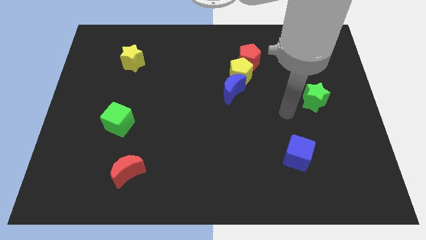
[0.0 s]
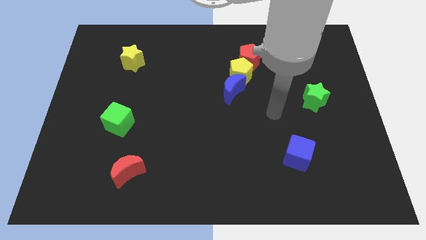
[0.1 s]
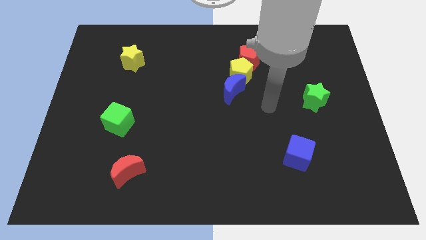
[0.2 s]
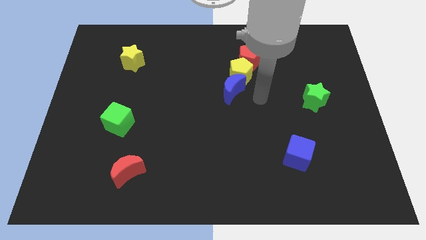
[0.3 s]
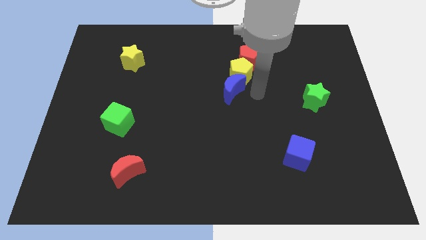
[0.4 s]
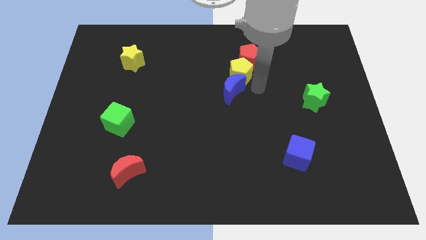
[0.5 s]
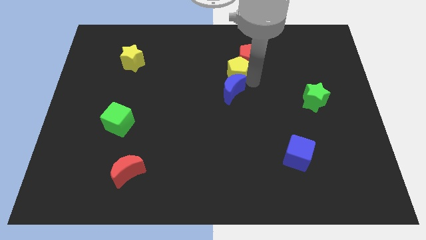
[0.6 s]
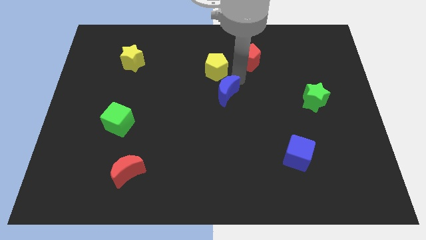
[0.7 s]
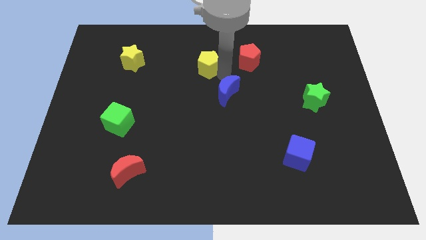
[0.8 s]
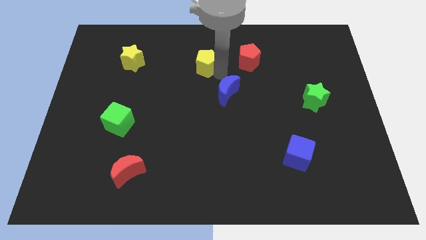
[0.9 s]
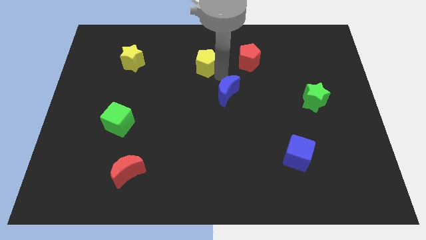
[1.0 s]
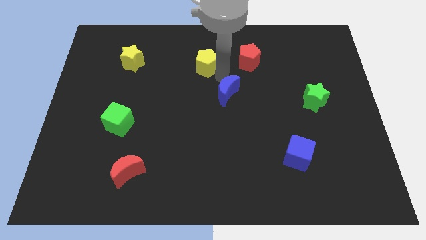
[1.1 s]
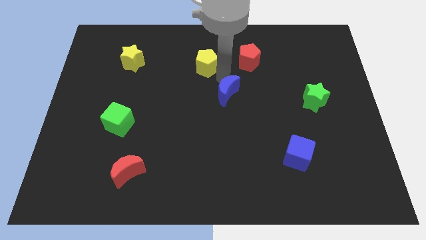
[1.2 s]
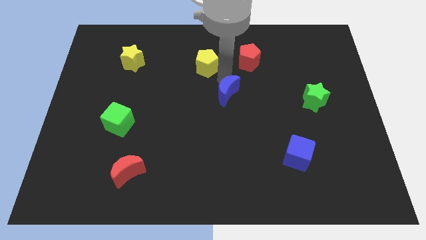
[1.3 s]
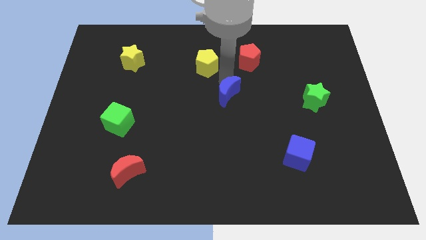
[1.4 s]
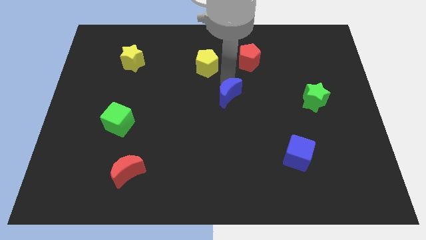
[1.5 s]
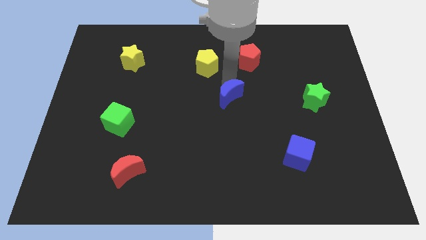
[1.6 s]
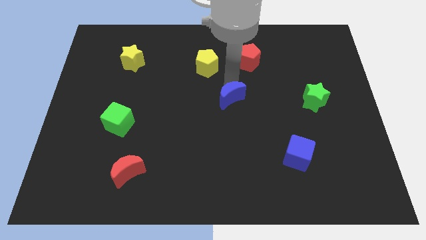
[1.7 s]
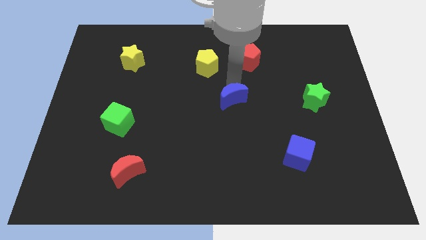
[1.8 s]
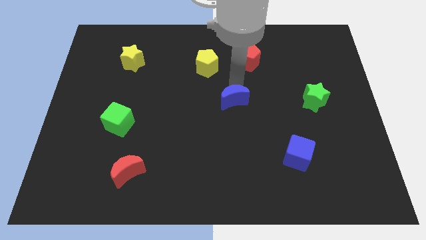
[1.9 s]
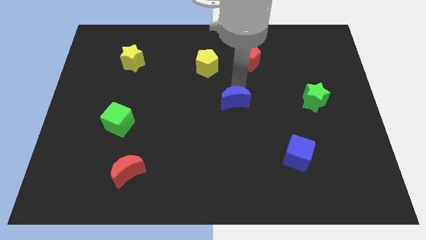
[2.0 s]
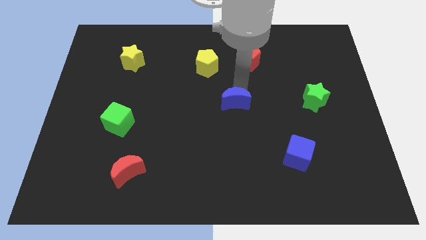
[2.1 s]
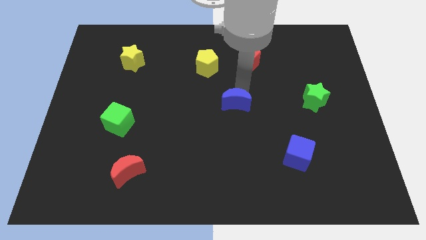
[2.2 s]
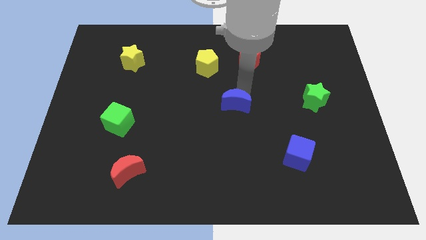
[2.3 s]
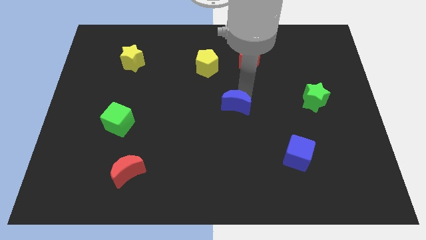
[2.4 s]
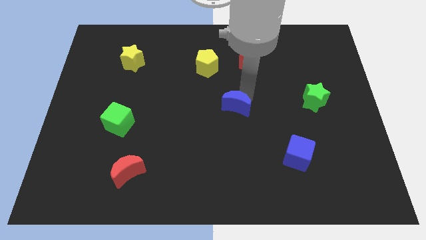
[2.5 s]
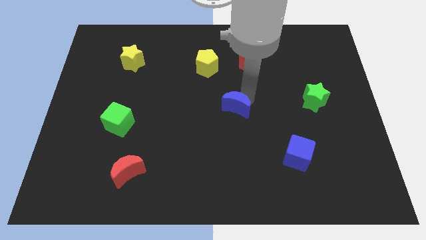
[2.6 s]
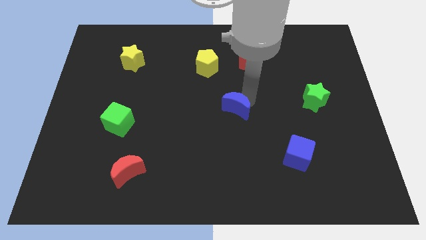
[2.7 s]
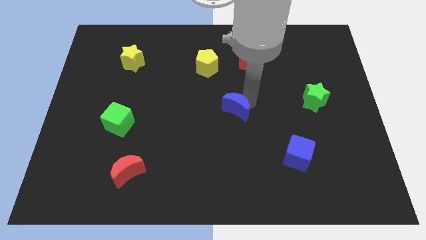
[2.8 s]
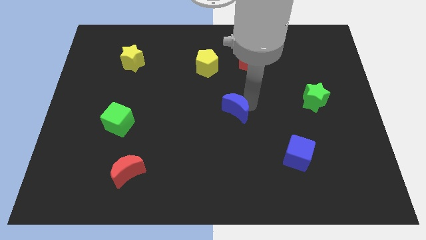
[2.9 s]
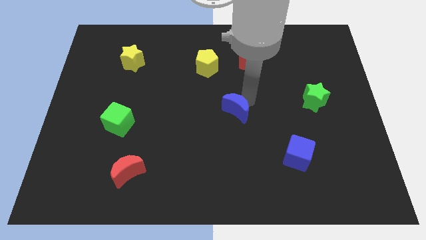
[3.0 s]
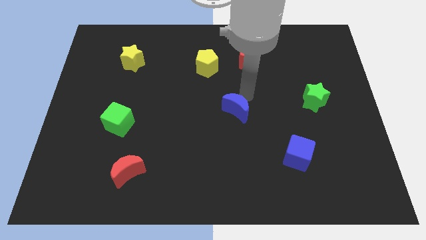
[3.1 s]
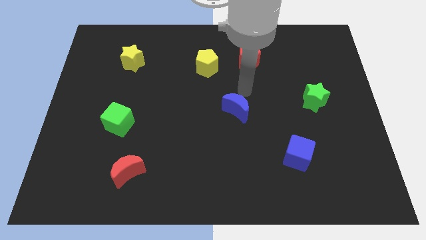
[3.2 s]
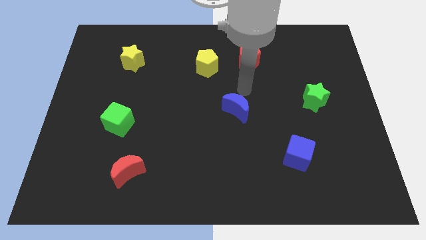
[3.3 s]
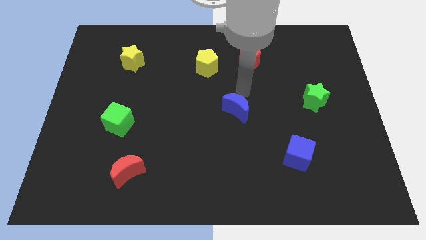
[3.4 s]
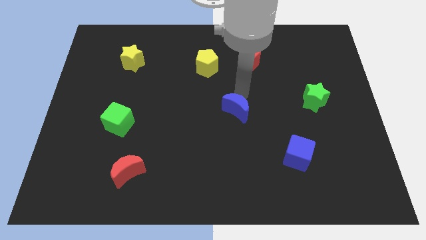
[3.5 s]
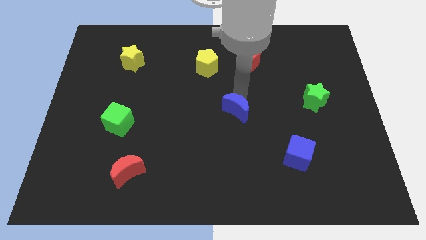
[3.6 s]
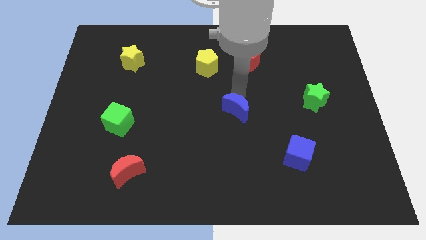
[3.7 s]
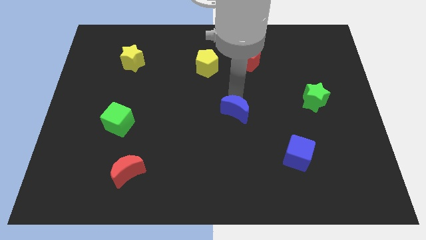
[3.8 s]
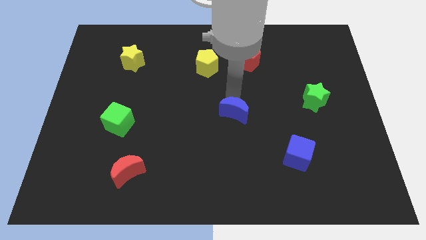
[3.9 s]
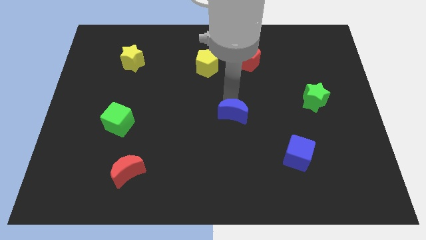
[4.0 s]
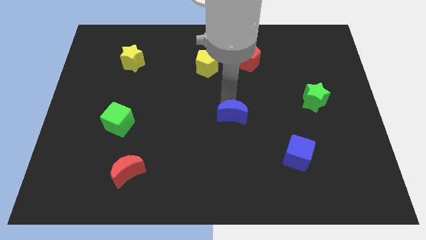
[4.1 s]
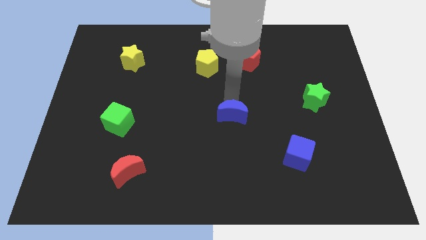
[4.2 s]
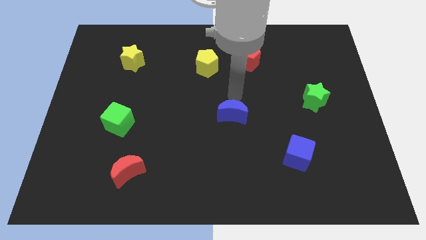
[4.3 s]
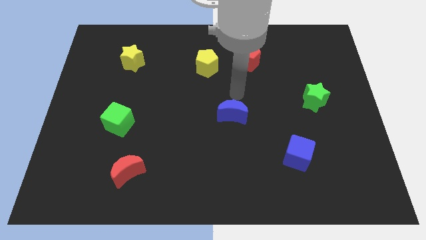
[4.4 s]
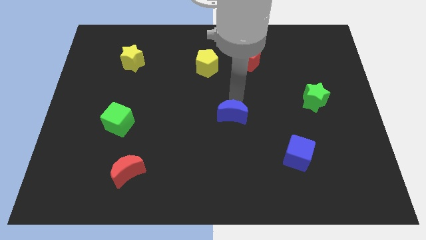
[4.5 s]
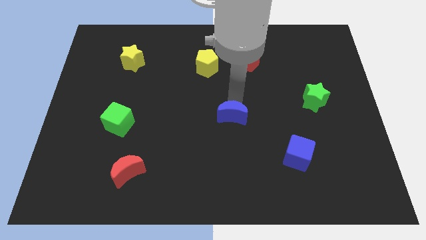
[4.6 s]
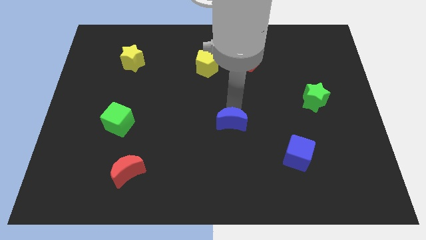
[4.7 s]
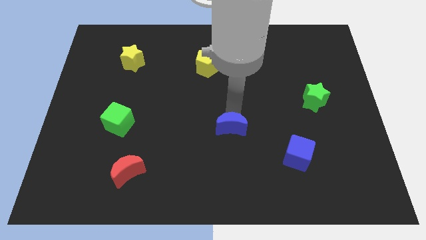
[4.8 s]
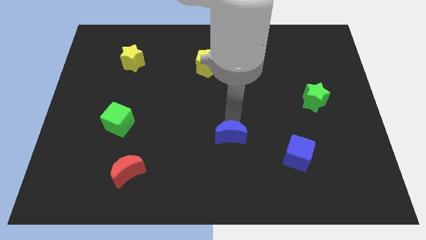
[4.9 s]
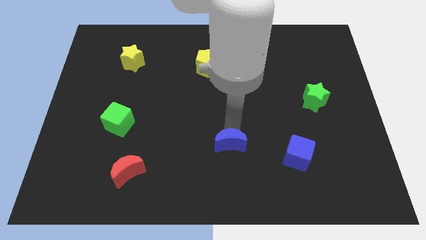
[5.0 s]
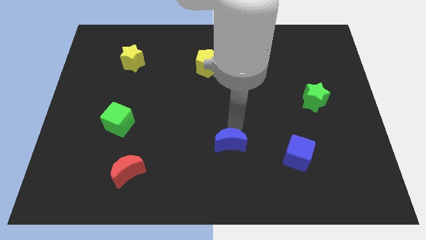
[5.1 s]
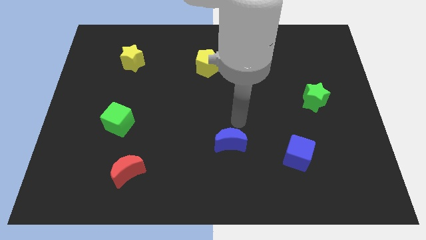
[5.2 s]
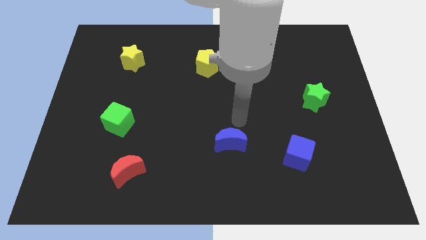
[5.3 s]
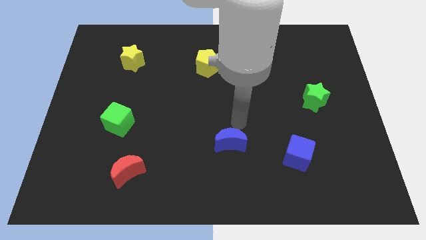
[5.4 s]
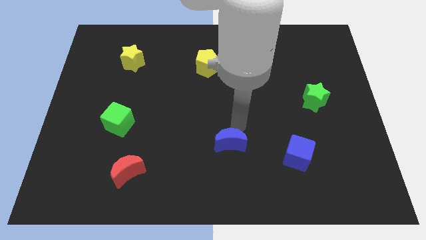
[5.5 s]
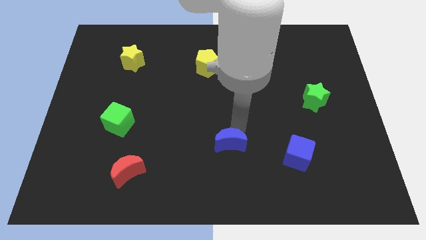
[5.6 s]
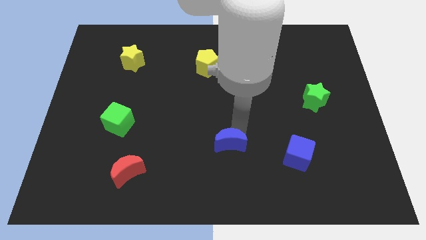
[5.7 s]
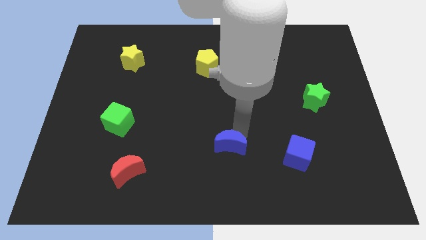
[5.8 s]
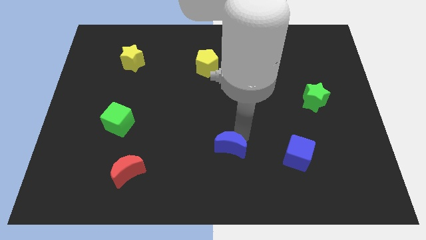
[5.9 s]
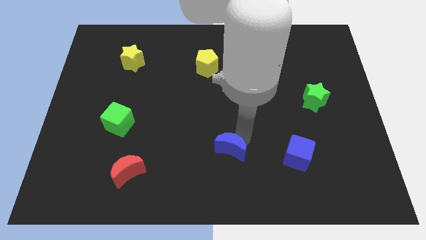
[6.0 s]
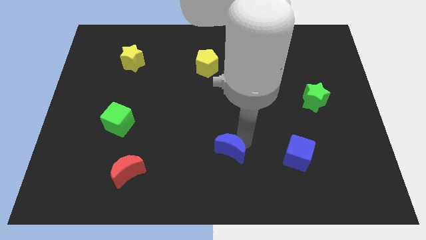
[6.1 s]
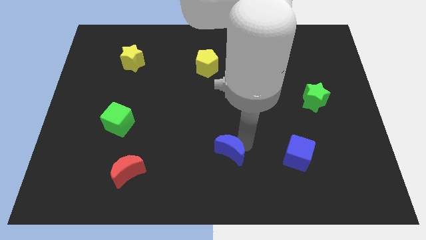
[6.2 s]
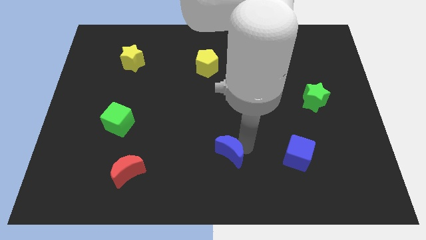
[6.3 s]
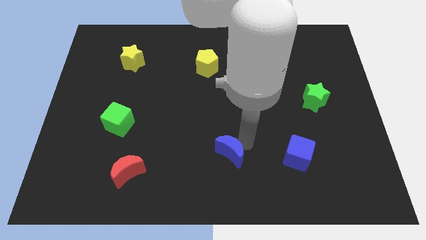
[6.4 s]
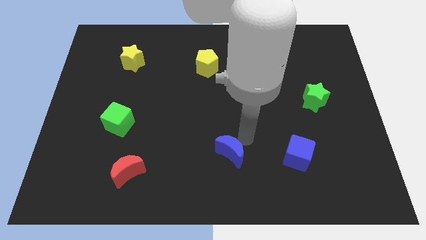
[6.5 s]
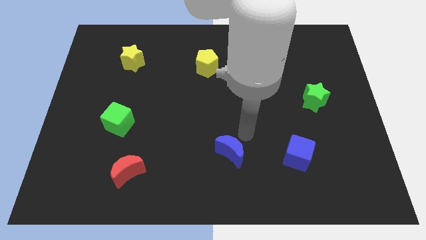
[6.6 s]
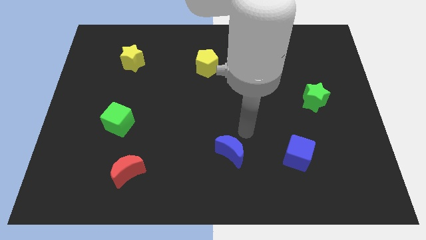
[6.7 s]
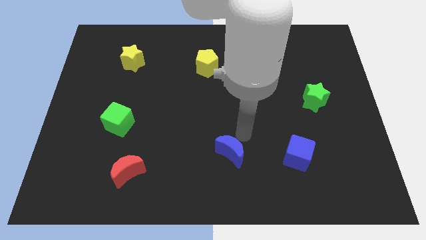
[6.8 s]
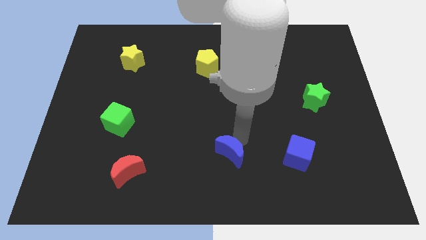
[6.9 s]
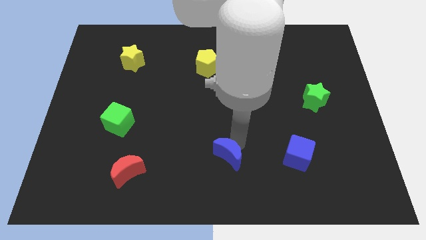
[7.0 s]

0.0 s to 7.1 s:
slide the blue moon to the bottom side
